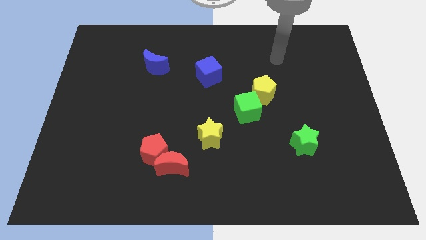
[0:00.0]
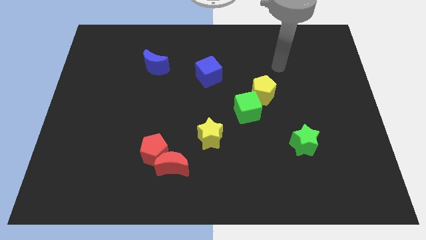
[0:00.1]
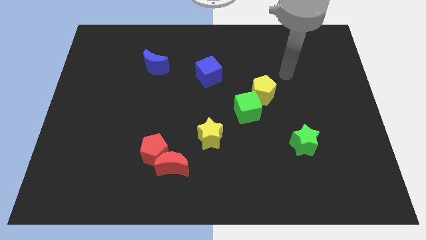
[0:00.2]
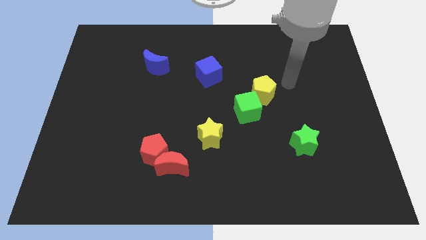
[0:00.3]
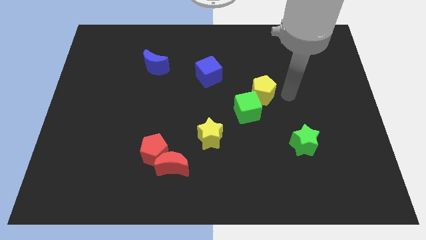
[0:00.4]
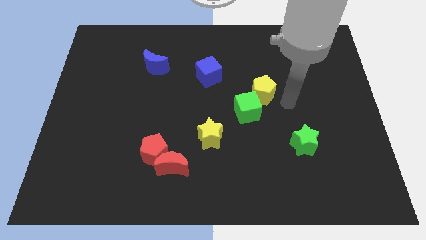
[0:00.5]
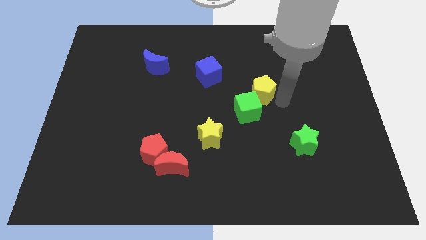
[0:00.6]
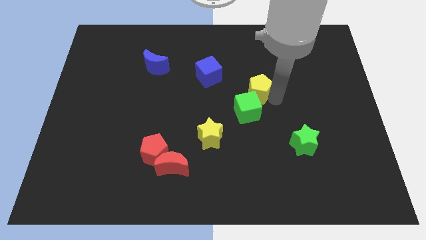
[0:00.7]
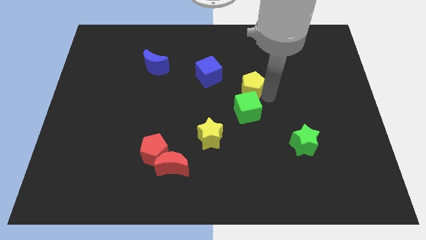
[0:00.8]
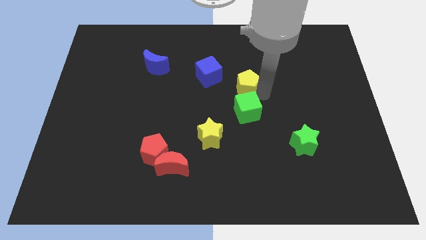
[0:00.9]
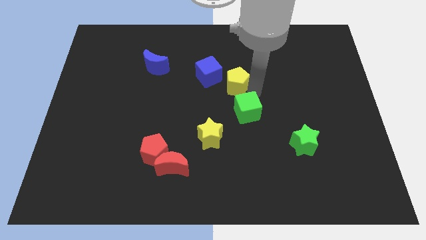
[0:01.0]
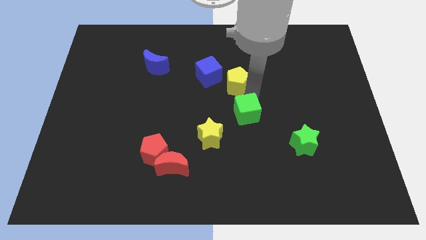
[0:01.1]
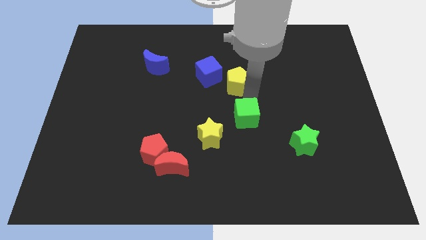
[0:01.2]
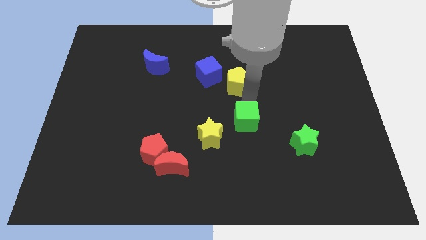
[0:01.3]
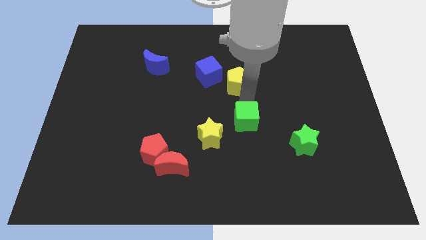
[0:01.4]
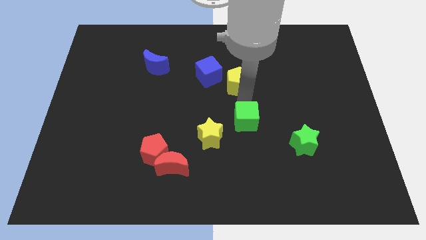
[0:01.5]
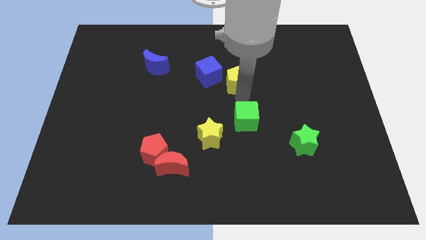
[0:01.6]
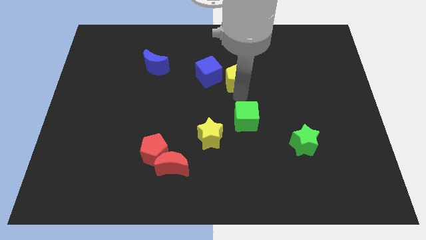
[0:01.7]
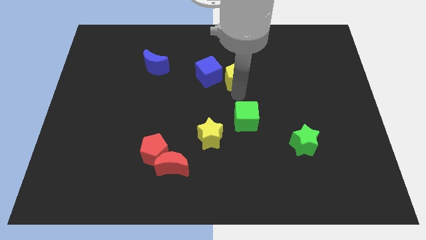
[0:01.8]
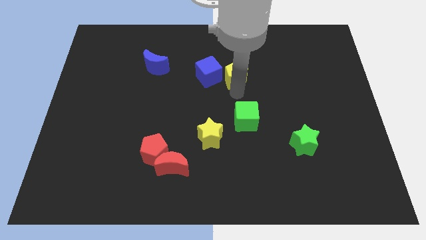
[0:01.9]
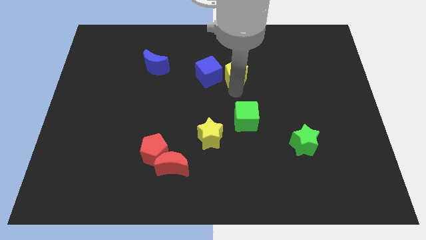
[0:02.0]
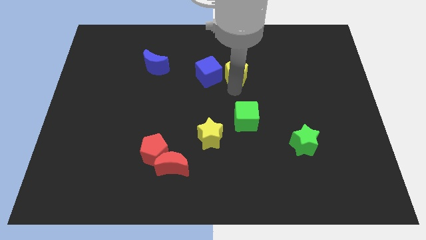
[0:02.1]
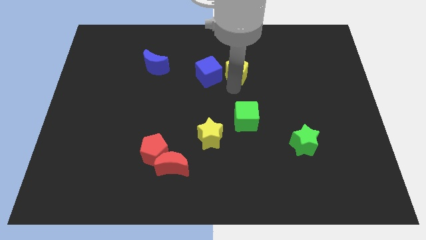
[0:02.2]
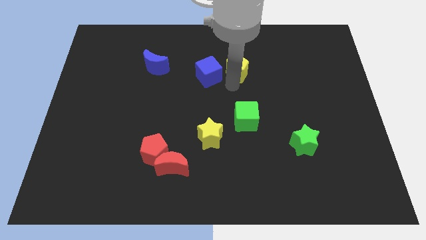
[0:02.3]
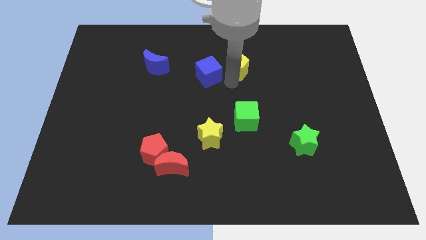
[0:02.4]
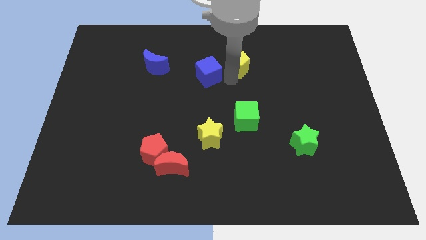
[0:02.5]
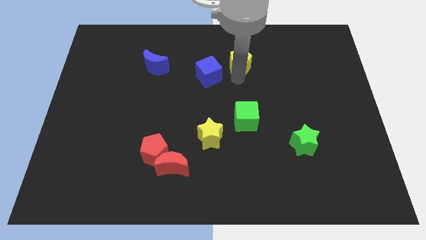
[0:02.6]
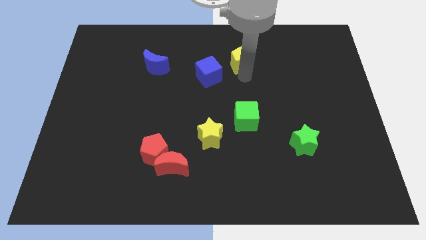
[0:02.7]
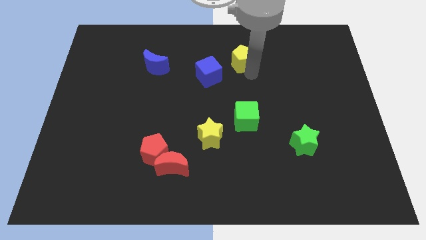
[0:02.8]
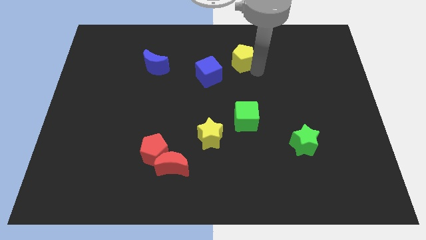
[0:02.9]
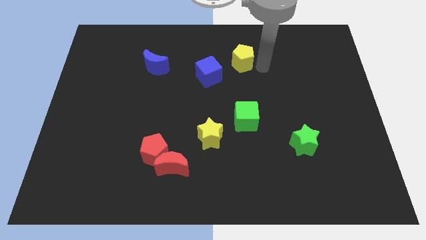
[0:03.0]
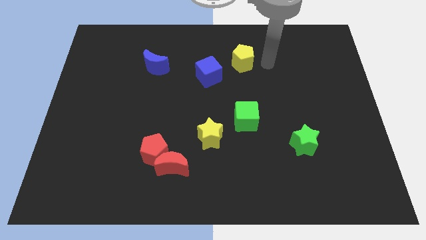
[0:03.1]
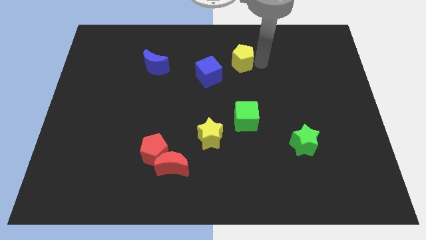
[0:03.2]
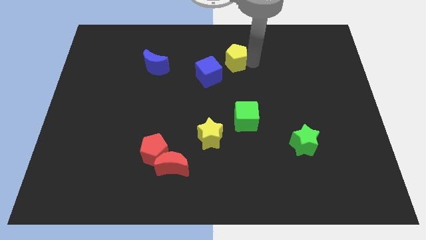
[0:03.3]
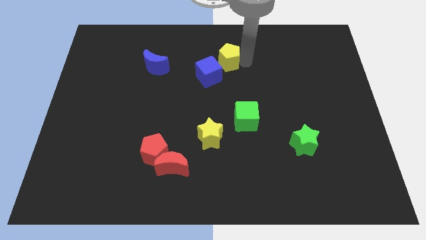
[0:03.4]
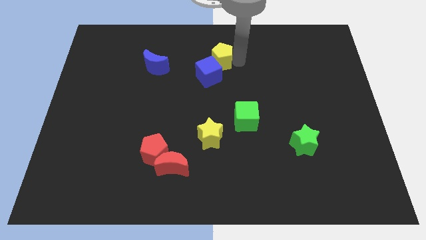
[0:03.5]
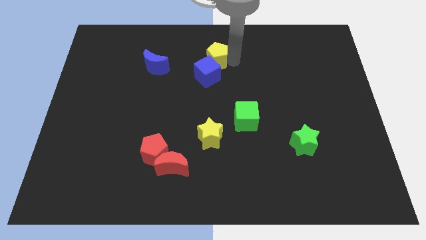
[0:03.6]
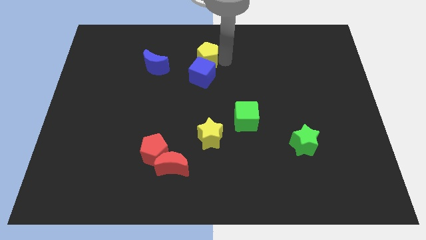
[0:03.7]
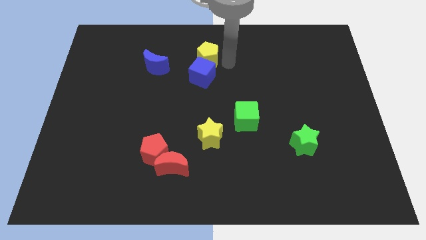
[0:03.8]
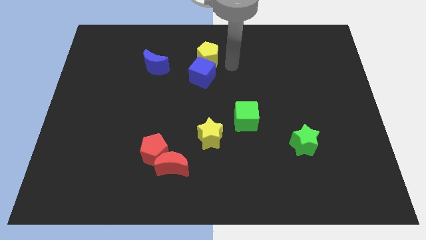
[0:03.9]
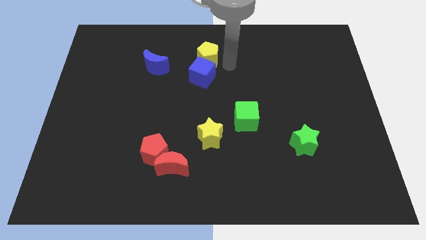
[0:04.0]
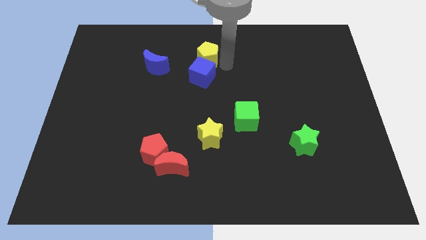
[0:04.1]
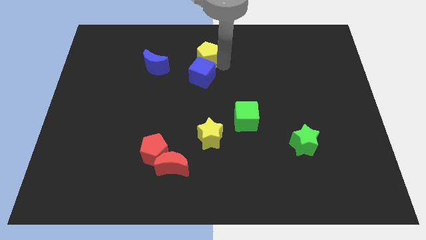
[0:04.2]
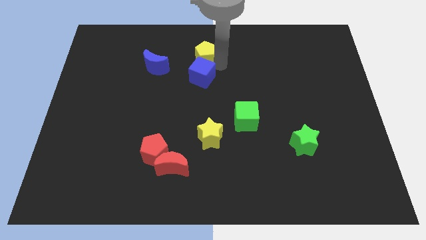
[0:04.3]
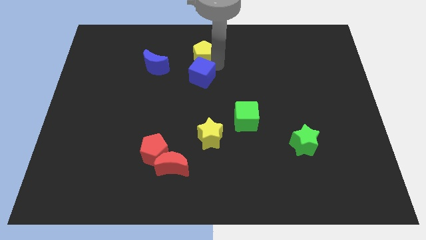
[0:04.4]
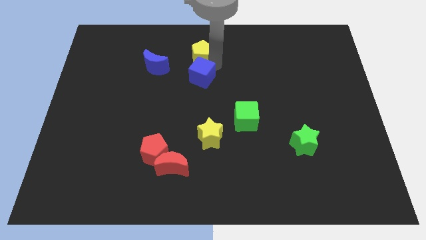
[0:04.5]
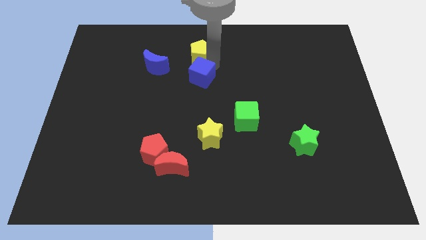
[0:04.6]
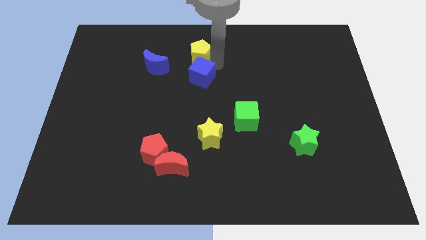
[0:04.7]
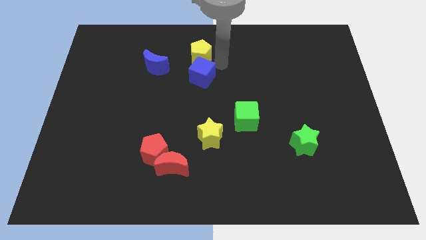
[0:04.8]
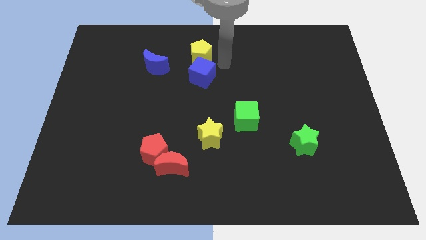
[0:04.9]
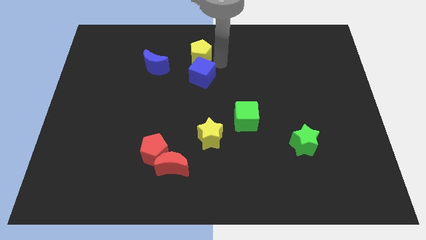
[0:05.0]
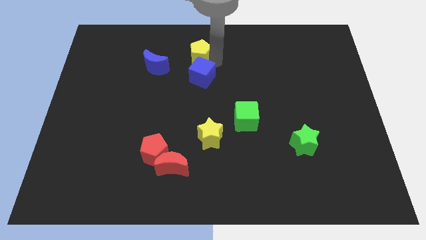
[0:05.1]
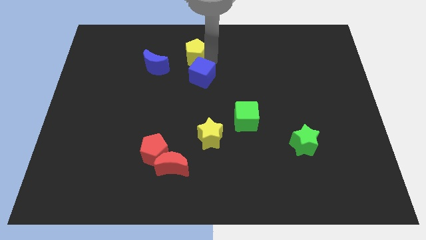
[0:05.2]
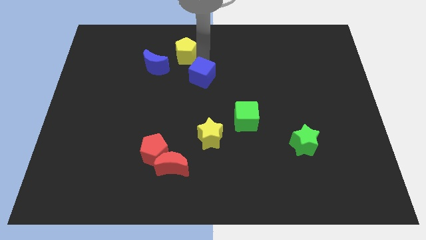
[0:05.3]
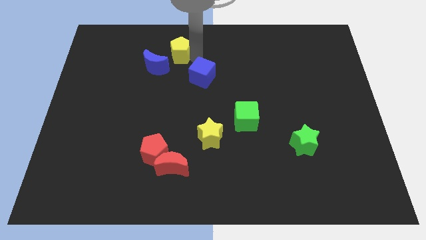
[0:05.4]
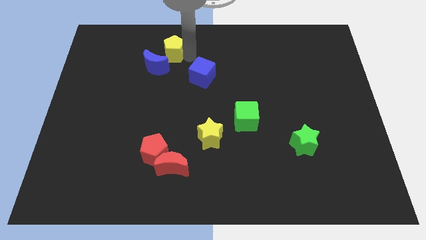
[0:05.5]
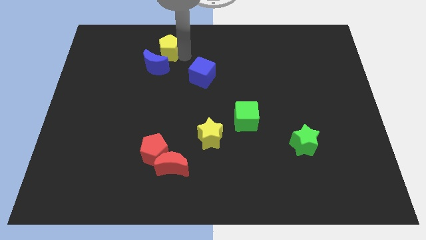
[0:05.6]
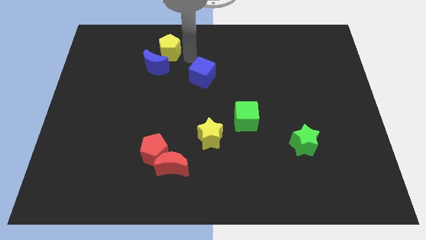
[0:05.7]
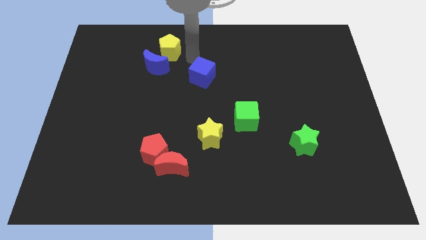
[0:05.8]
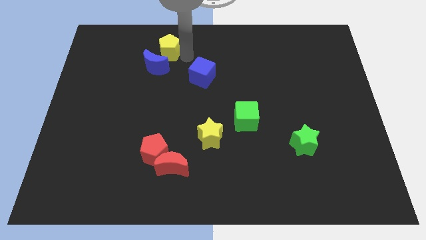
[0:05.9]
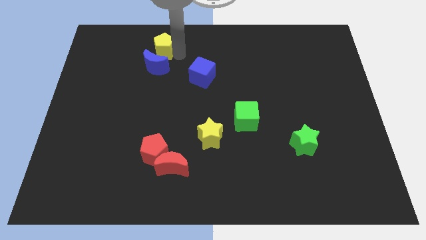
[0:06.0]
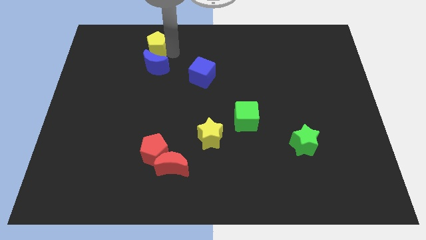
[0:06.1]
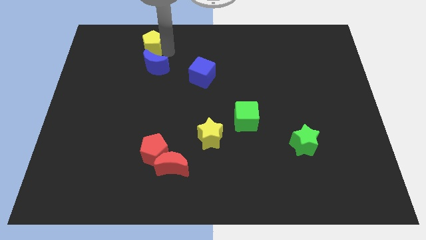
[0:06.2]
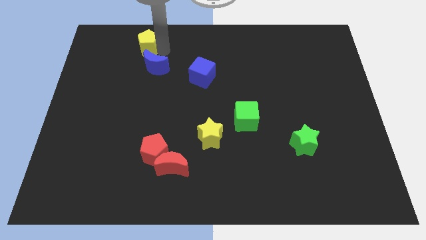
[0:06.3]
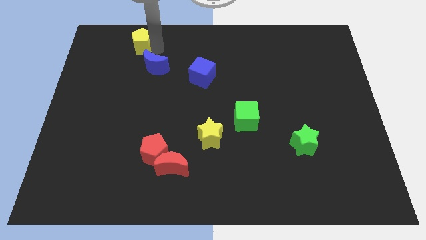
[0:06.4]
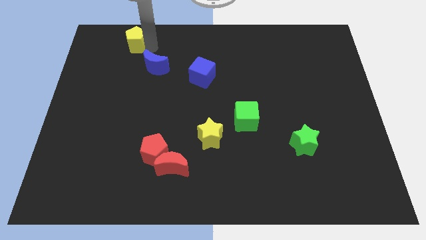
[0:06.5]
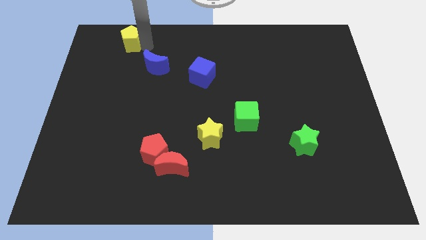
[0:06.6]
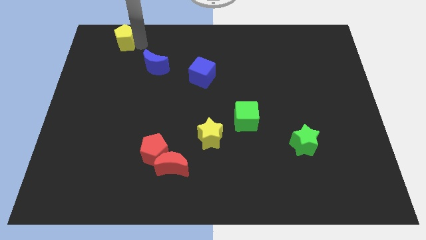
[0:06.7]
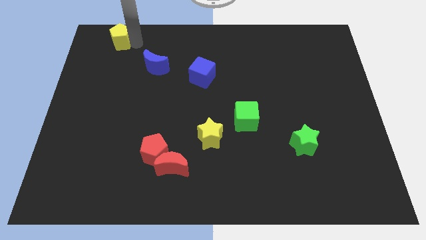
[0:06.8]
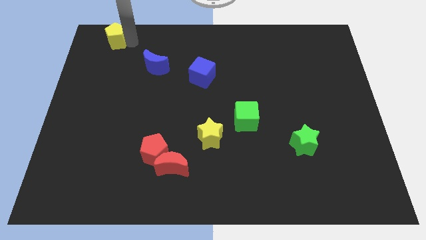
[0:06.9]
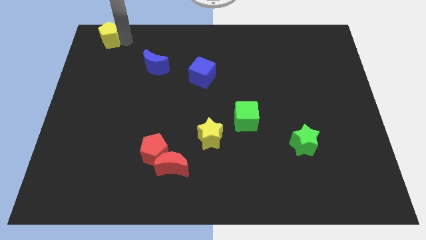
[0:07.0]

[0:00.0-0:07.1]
slide the yellow pentagon to the top left of the board
